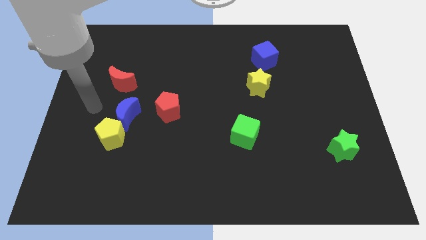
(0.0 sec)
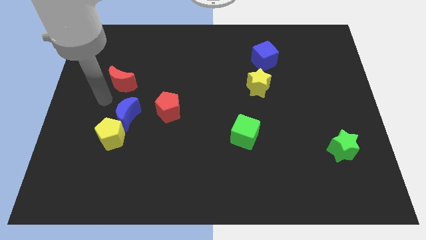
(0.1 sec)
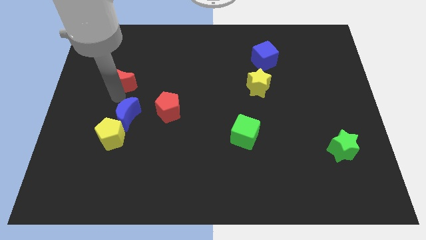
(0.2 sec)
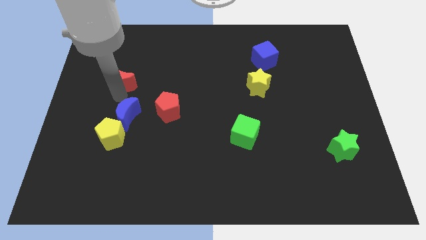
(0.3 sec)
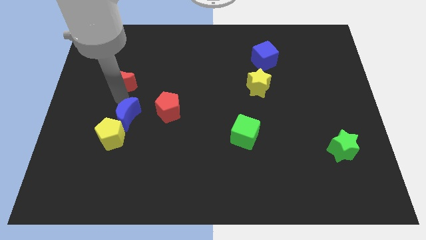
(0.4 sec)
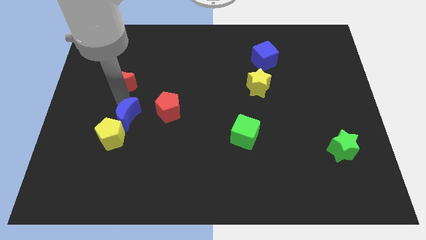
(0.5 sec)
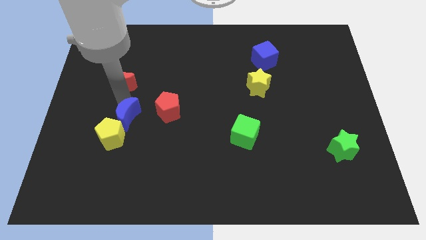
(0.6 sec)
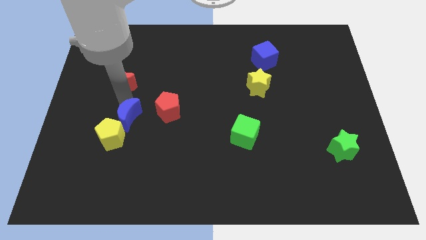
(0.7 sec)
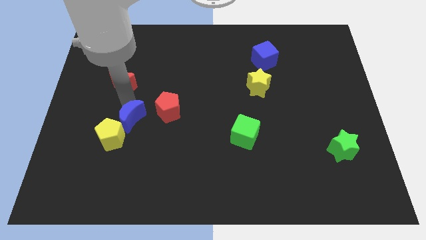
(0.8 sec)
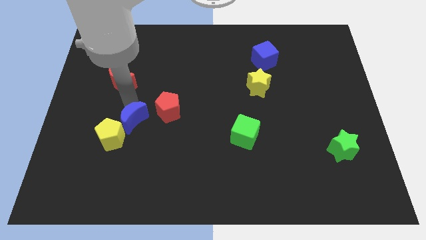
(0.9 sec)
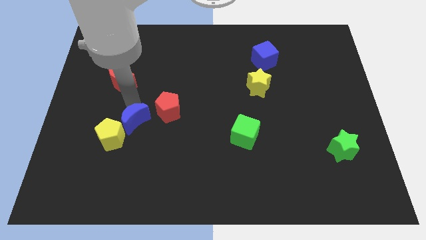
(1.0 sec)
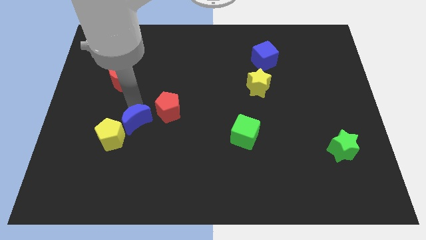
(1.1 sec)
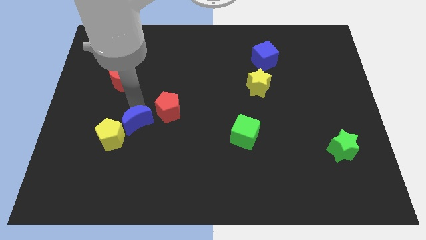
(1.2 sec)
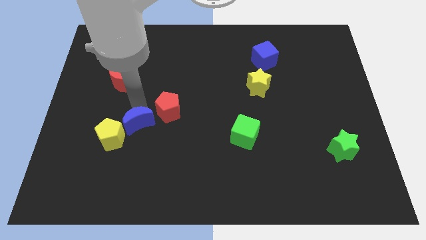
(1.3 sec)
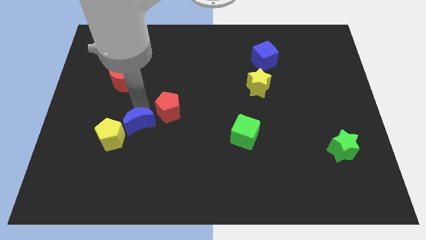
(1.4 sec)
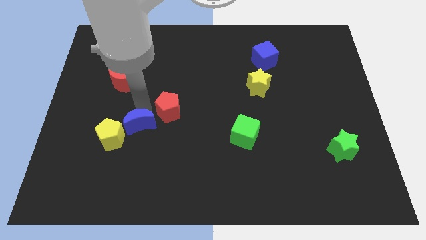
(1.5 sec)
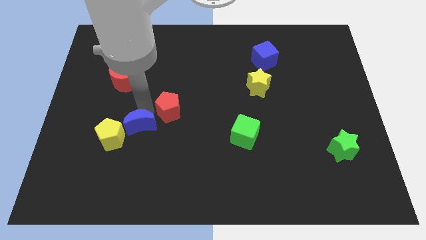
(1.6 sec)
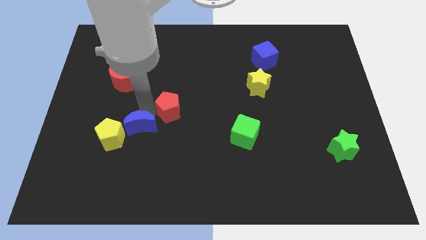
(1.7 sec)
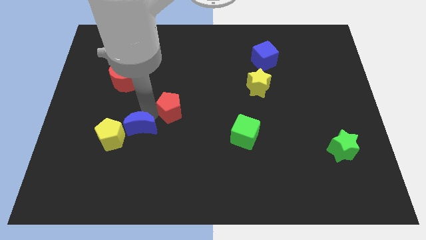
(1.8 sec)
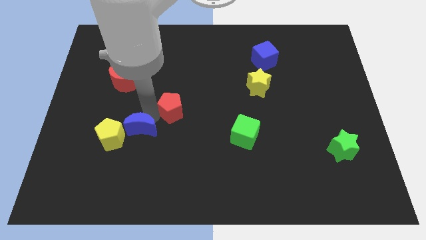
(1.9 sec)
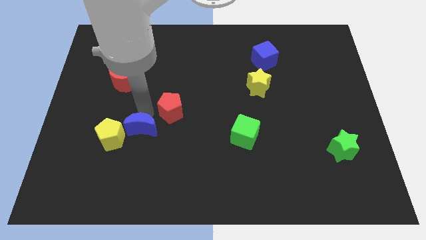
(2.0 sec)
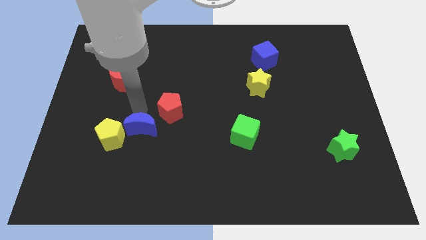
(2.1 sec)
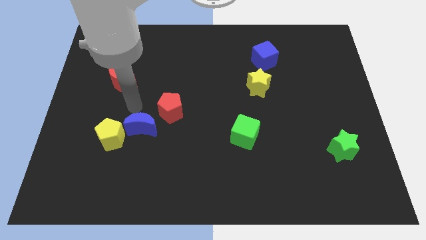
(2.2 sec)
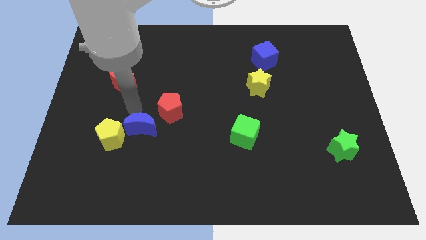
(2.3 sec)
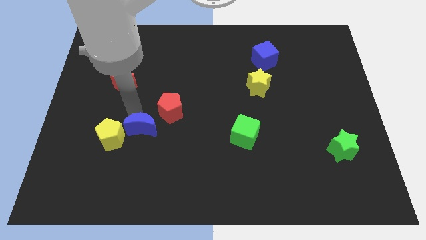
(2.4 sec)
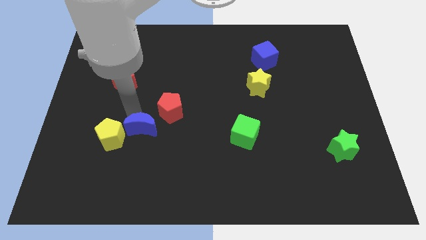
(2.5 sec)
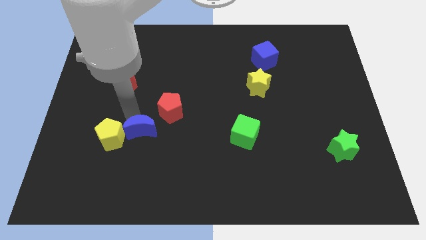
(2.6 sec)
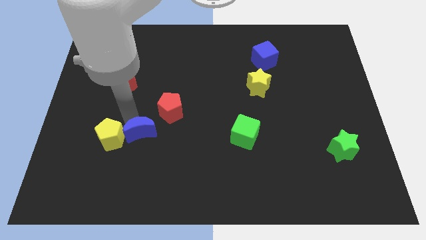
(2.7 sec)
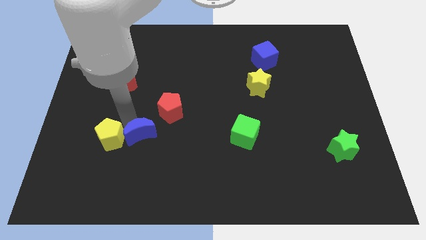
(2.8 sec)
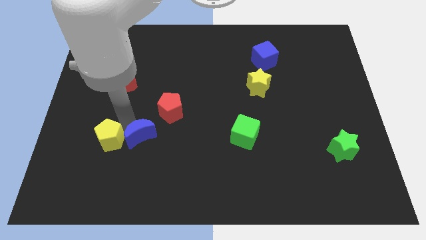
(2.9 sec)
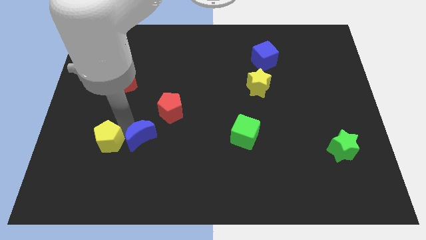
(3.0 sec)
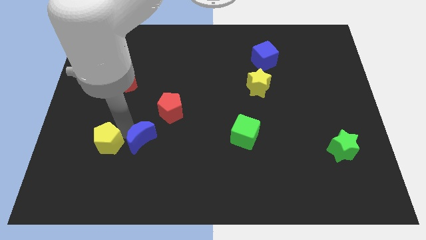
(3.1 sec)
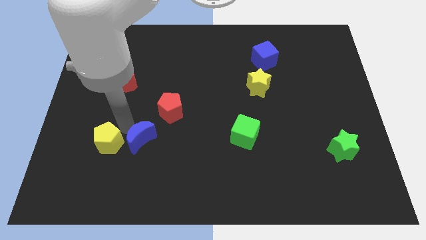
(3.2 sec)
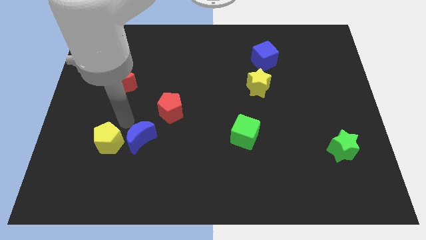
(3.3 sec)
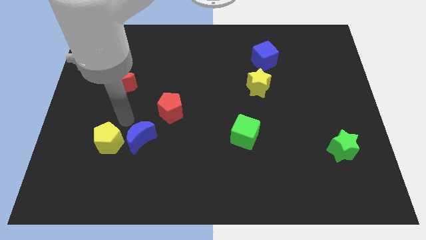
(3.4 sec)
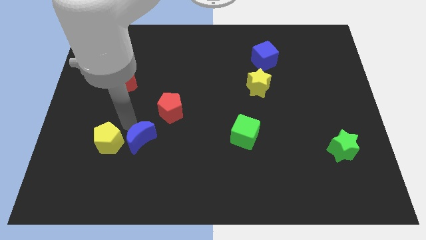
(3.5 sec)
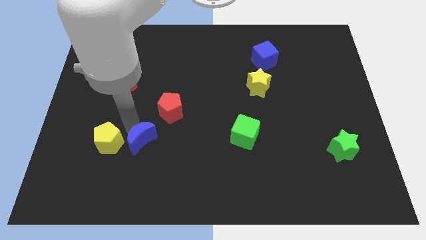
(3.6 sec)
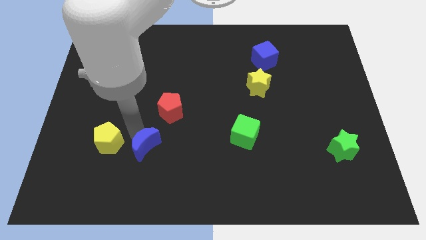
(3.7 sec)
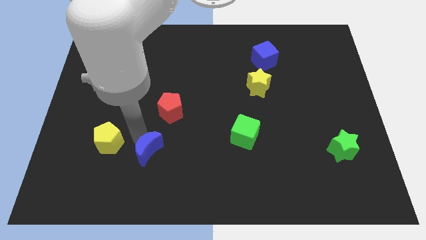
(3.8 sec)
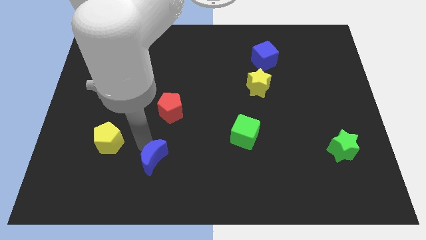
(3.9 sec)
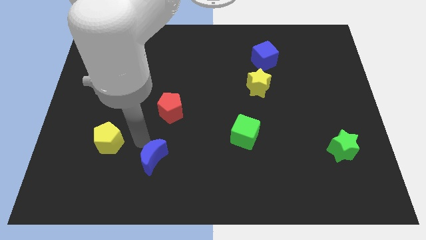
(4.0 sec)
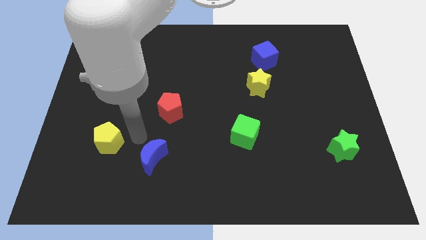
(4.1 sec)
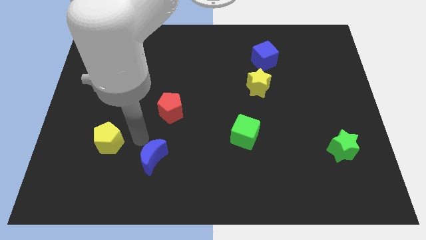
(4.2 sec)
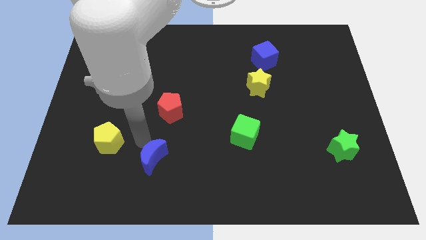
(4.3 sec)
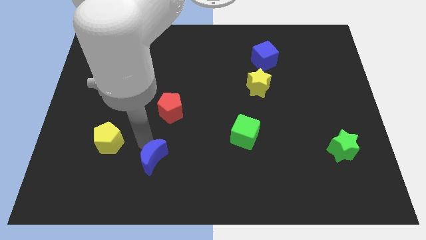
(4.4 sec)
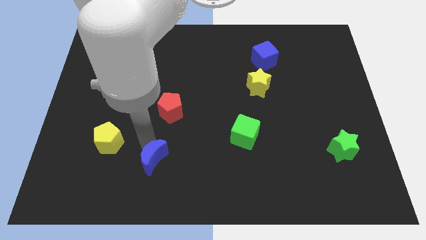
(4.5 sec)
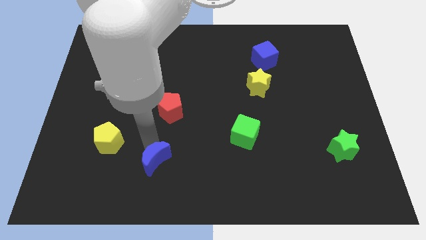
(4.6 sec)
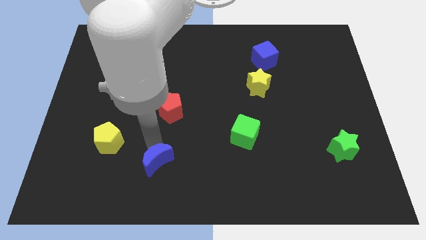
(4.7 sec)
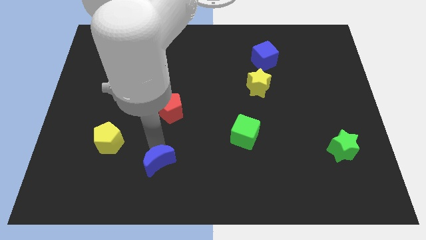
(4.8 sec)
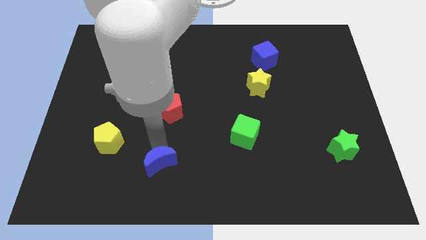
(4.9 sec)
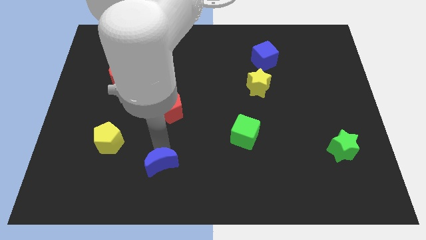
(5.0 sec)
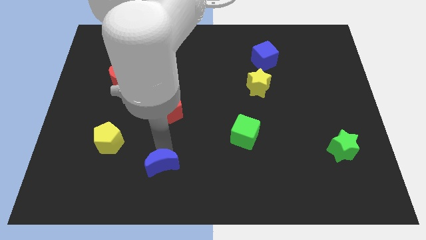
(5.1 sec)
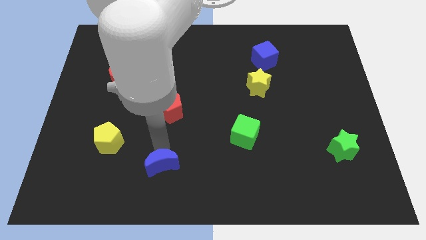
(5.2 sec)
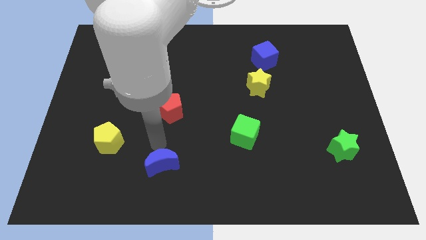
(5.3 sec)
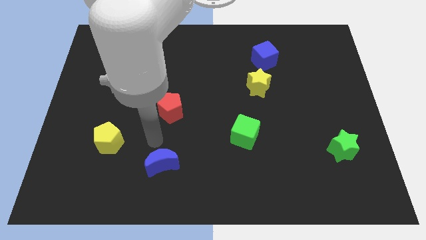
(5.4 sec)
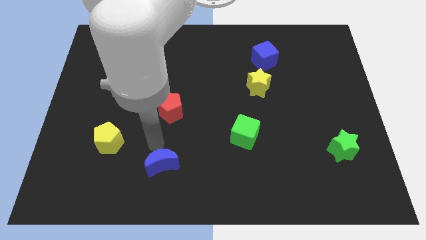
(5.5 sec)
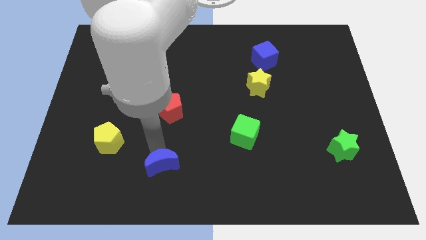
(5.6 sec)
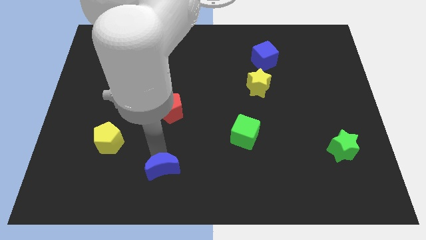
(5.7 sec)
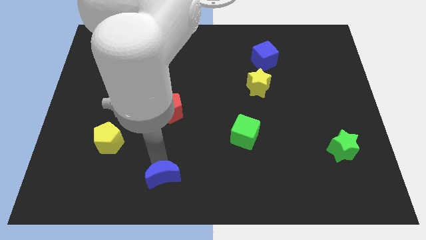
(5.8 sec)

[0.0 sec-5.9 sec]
slide the blue moon to the bottom side

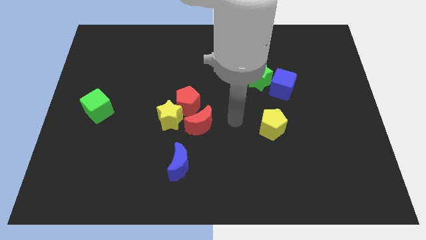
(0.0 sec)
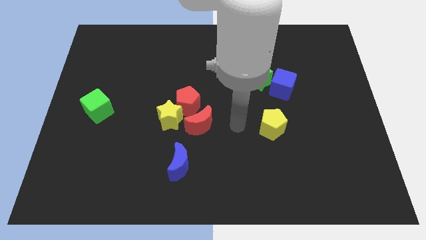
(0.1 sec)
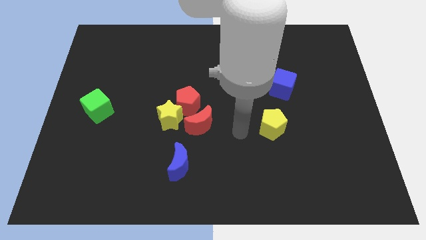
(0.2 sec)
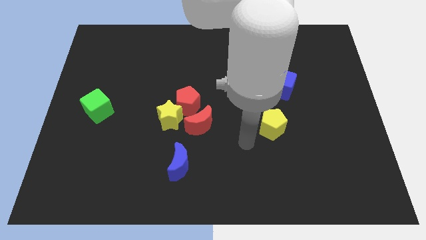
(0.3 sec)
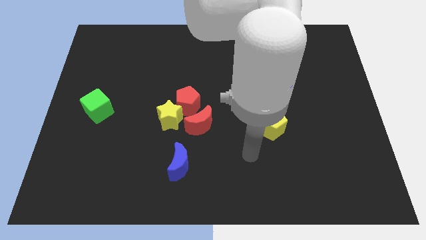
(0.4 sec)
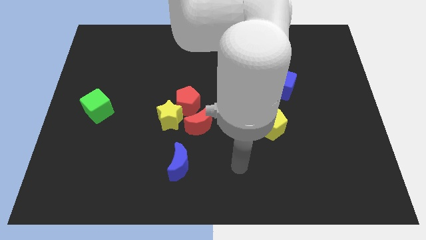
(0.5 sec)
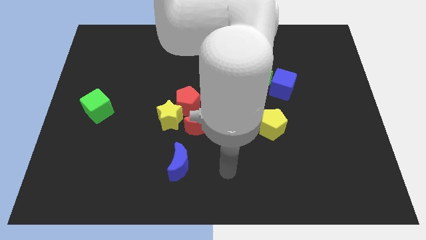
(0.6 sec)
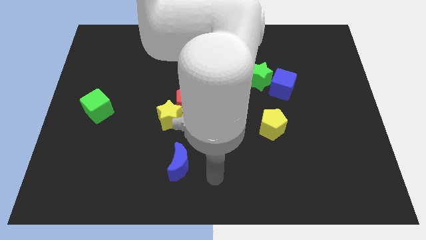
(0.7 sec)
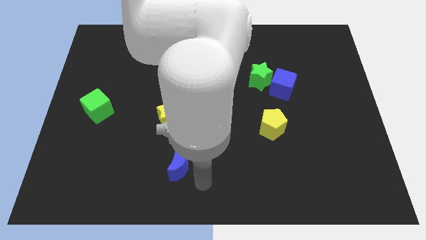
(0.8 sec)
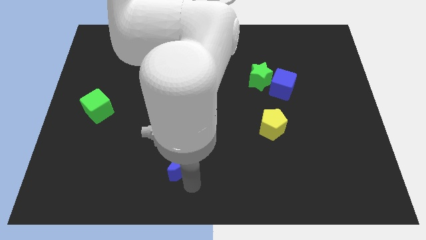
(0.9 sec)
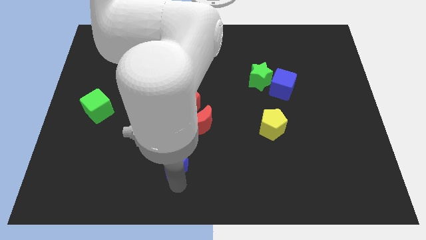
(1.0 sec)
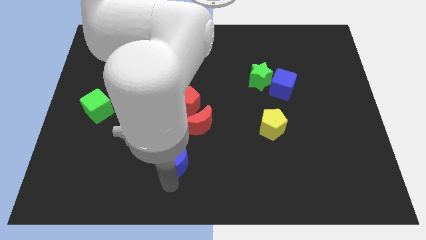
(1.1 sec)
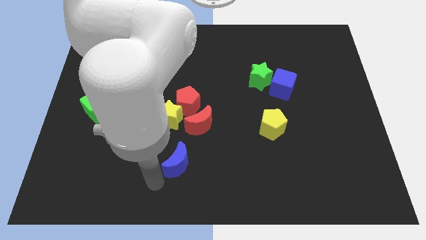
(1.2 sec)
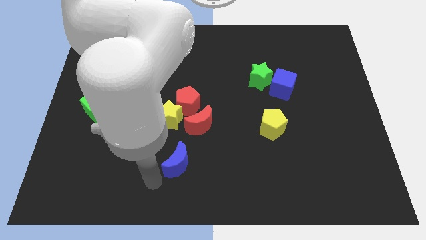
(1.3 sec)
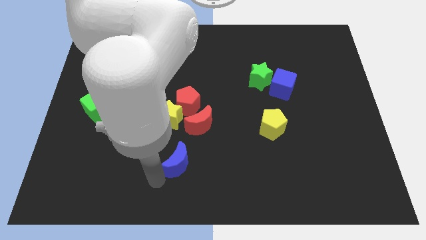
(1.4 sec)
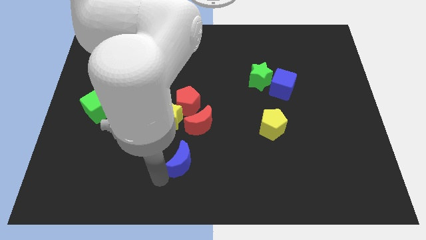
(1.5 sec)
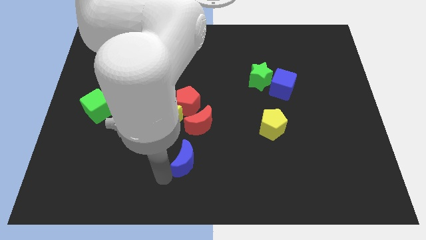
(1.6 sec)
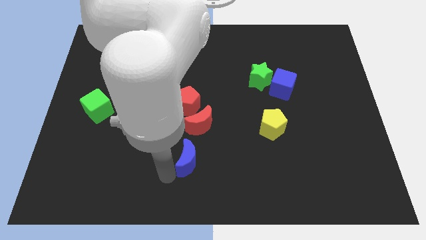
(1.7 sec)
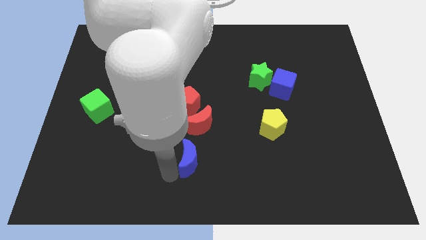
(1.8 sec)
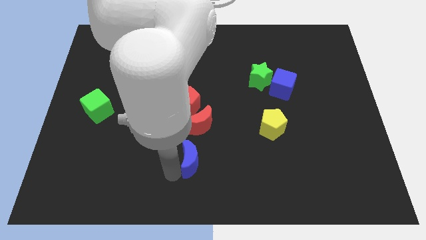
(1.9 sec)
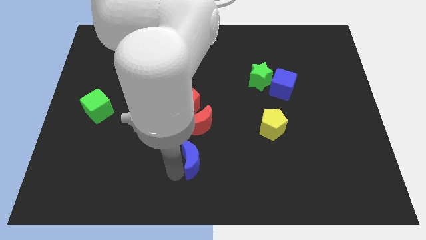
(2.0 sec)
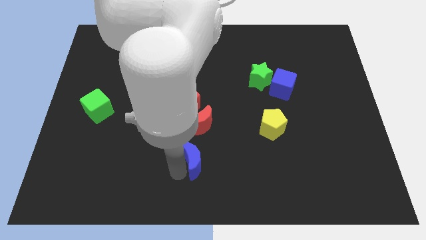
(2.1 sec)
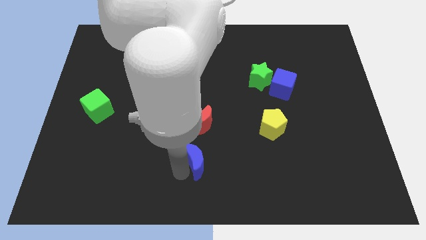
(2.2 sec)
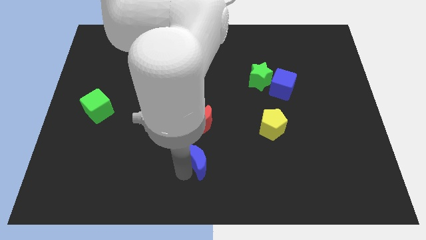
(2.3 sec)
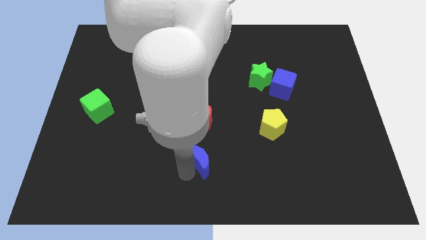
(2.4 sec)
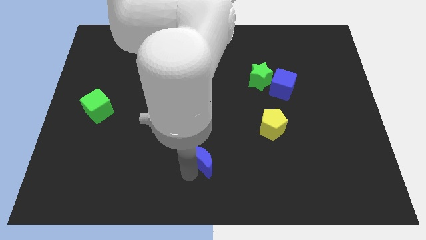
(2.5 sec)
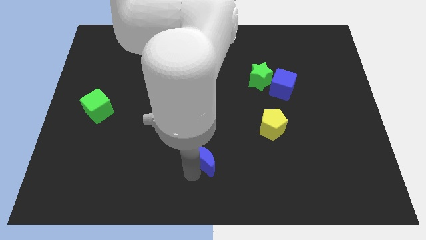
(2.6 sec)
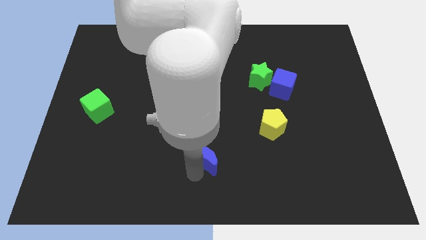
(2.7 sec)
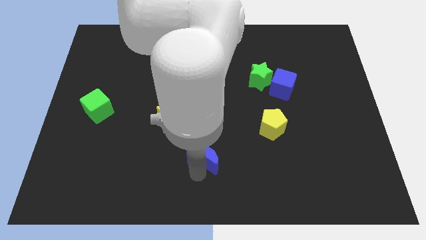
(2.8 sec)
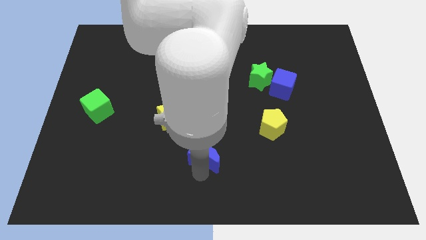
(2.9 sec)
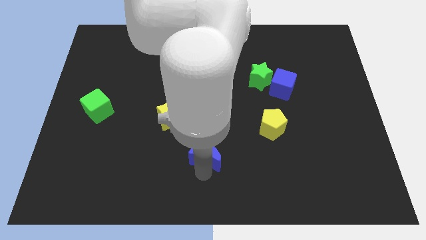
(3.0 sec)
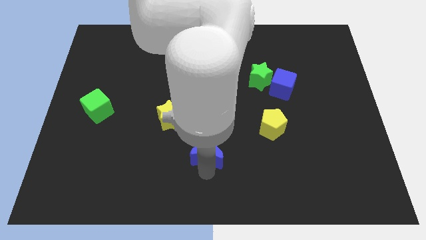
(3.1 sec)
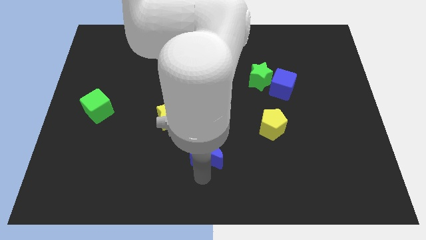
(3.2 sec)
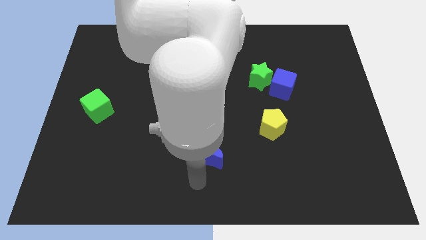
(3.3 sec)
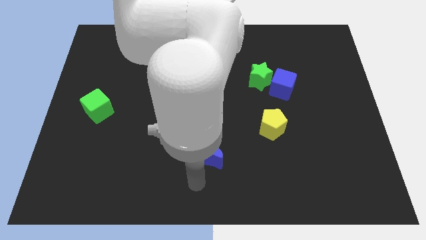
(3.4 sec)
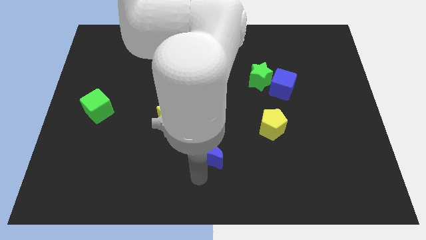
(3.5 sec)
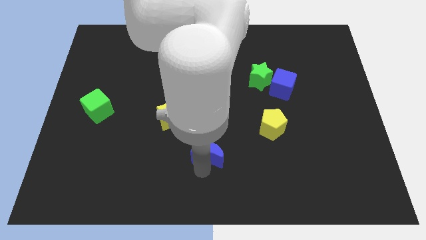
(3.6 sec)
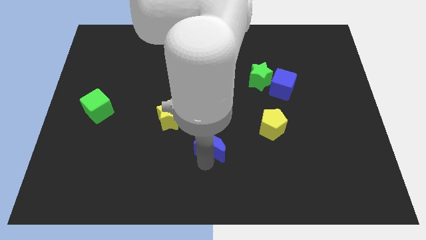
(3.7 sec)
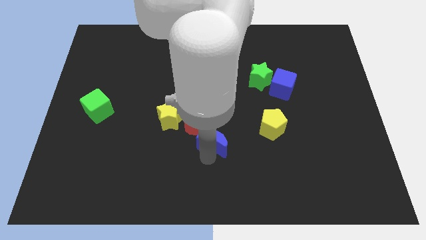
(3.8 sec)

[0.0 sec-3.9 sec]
slide the blue moon to the center
